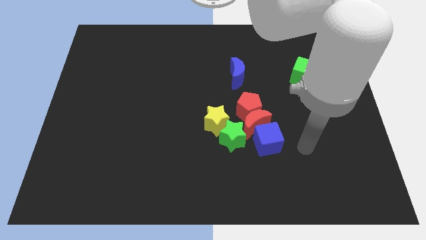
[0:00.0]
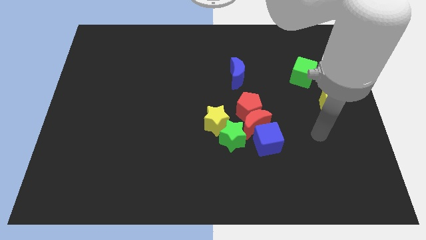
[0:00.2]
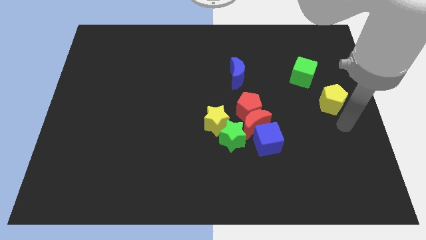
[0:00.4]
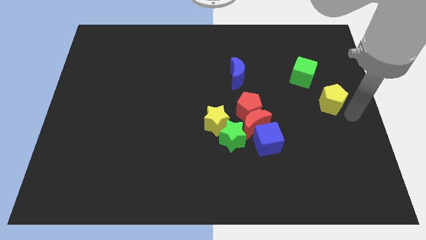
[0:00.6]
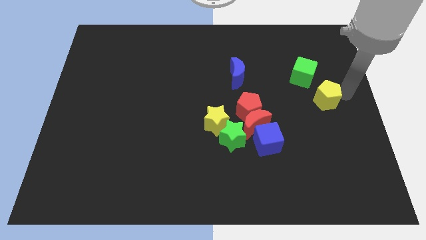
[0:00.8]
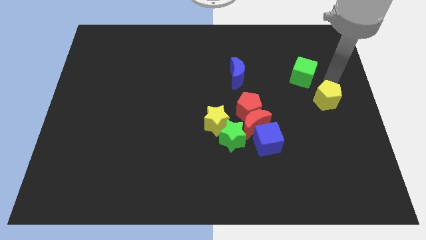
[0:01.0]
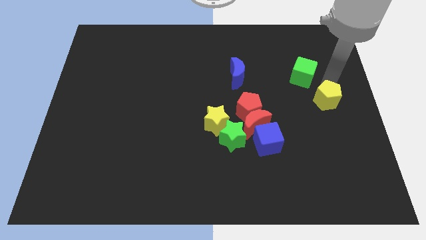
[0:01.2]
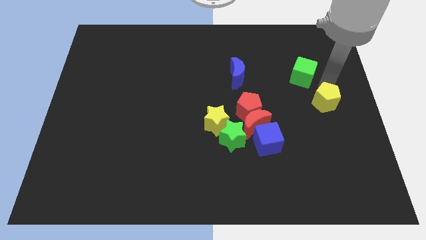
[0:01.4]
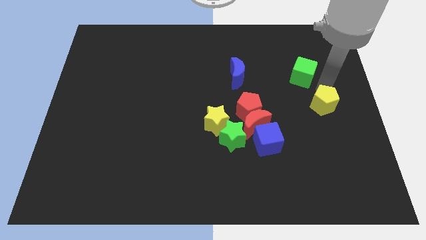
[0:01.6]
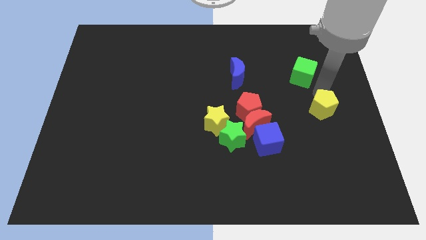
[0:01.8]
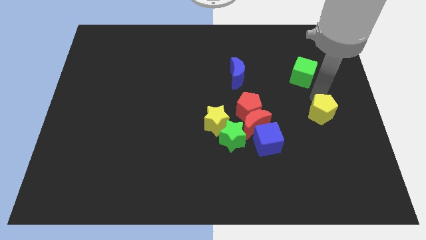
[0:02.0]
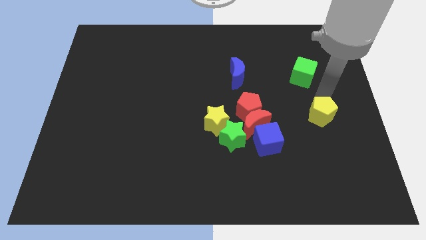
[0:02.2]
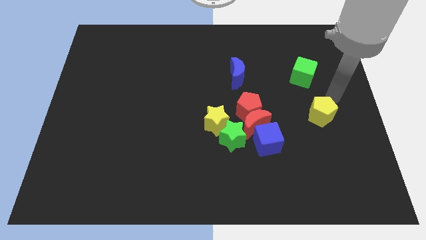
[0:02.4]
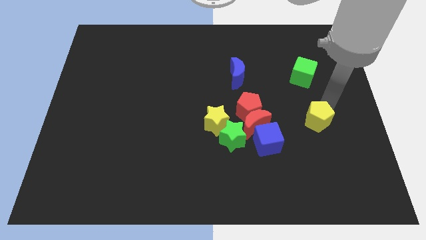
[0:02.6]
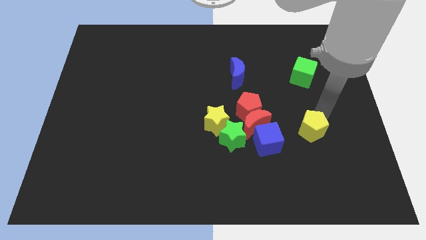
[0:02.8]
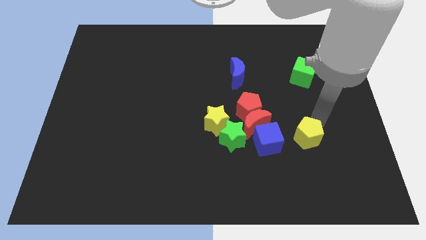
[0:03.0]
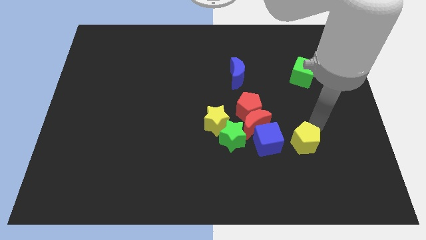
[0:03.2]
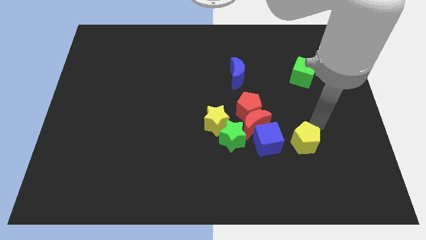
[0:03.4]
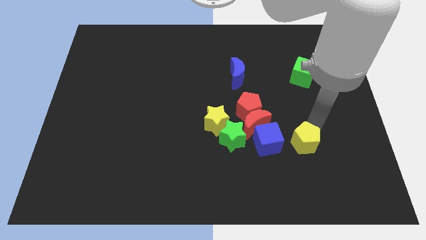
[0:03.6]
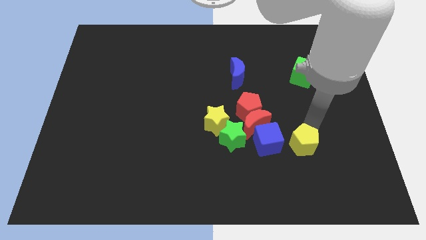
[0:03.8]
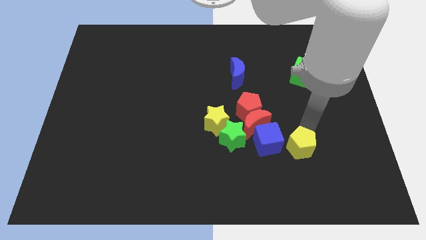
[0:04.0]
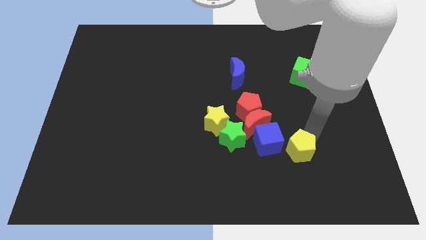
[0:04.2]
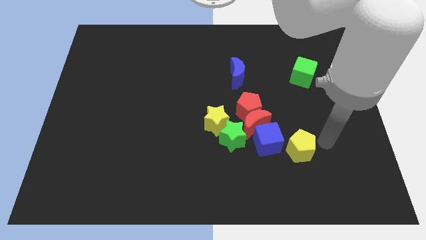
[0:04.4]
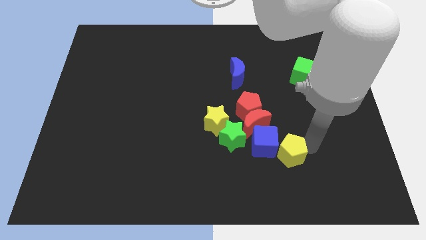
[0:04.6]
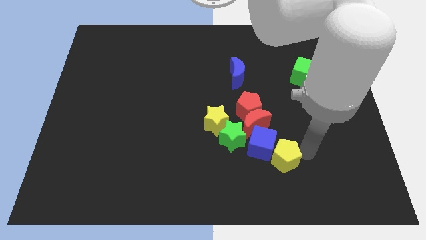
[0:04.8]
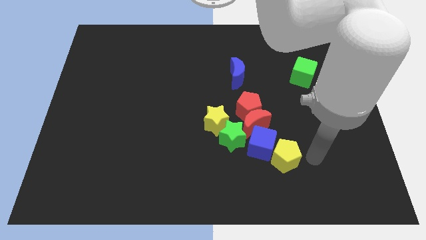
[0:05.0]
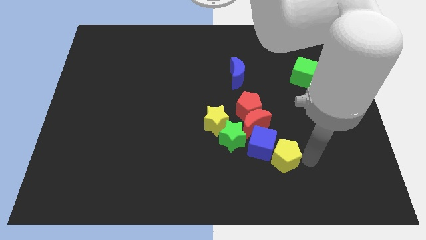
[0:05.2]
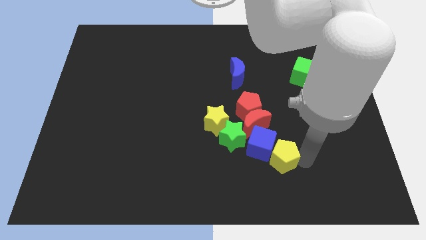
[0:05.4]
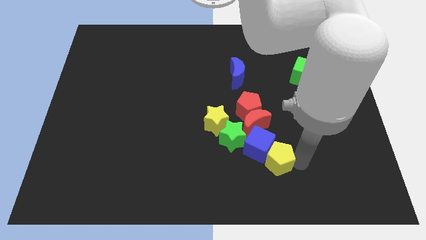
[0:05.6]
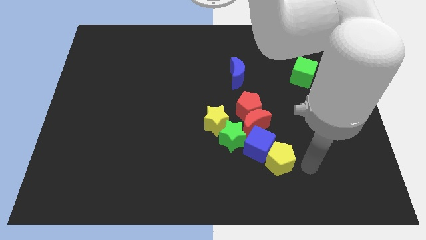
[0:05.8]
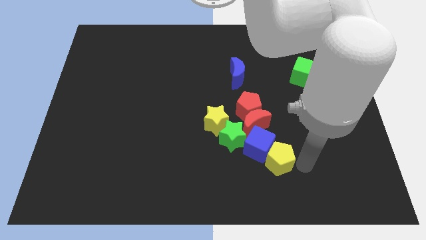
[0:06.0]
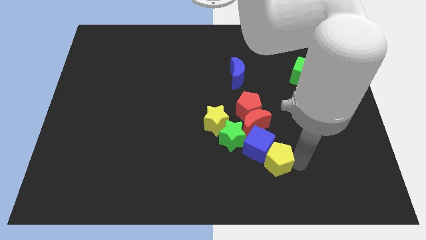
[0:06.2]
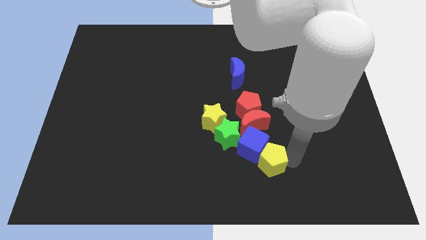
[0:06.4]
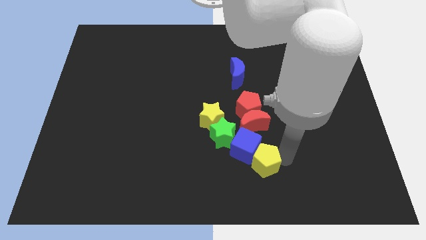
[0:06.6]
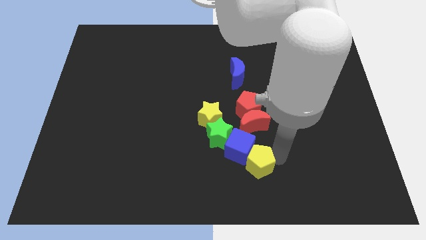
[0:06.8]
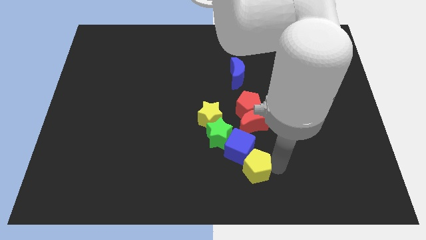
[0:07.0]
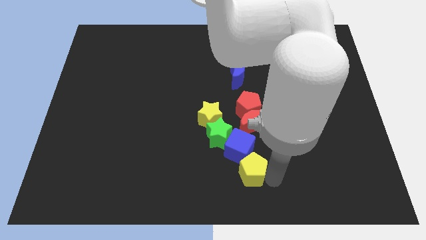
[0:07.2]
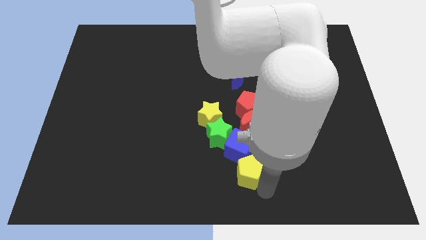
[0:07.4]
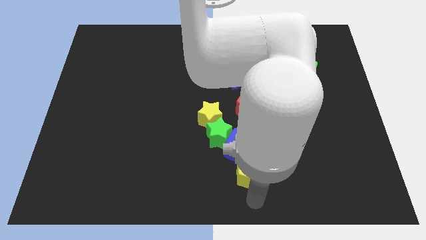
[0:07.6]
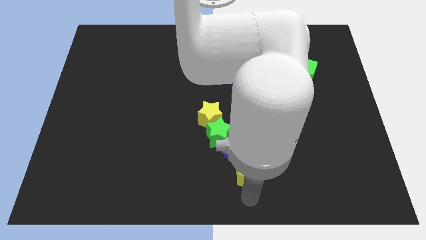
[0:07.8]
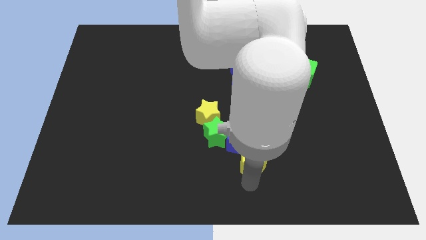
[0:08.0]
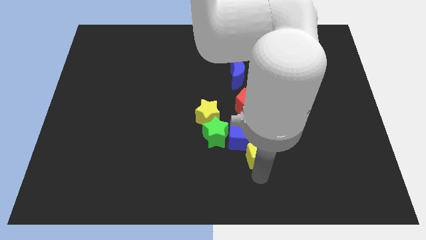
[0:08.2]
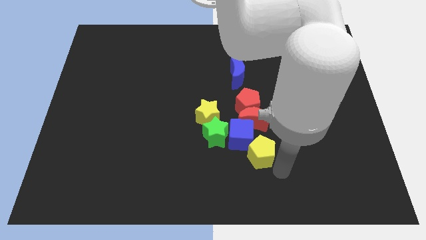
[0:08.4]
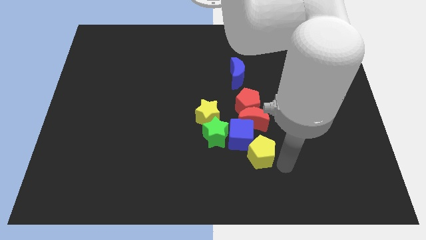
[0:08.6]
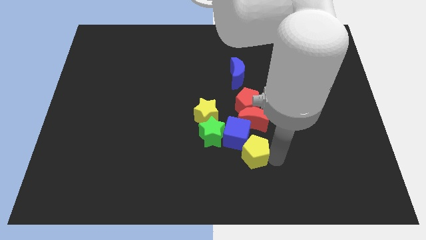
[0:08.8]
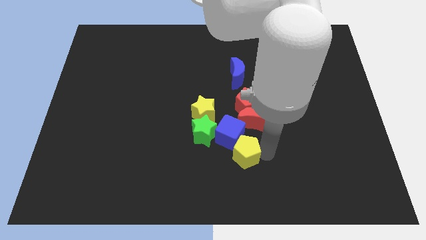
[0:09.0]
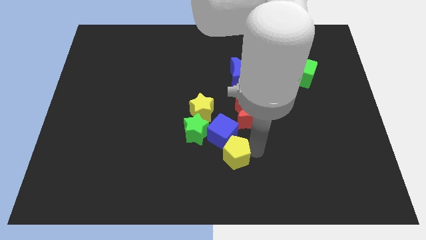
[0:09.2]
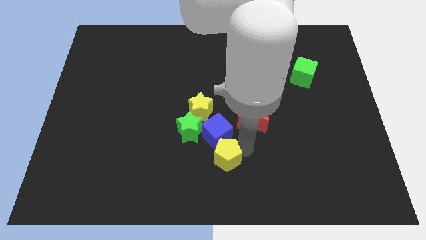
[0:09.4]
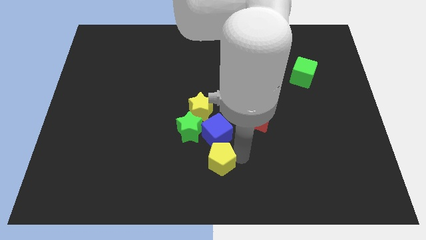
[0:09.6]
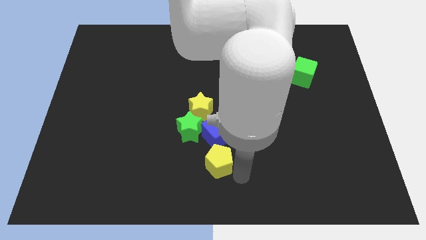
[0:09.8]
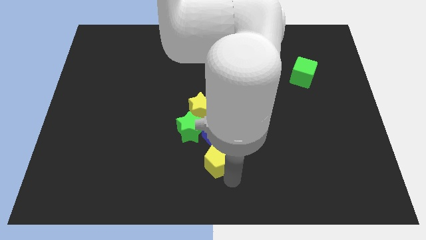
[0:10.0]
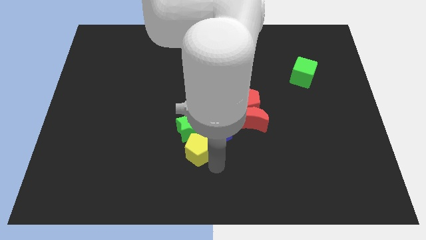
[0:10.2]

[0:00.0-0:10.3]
put the yellow pentagon next to the green star

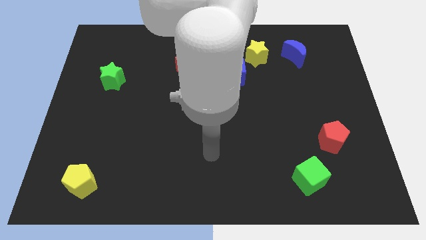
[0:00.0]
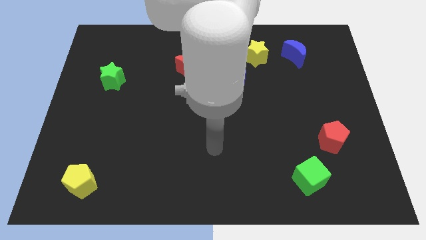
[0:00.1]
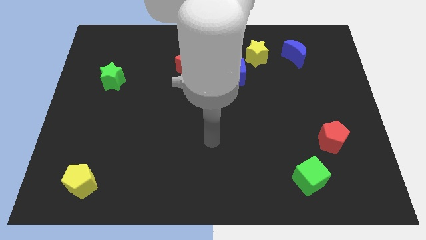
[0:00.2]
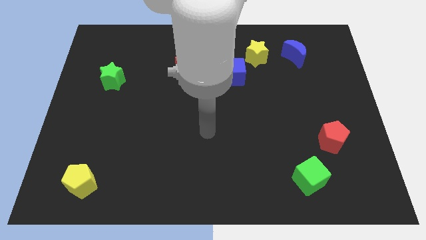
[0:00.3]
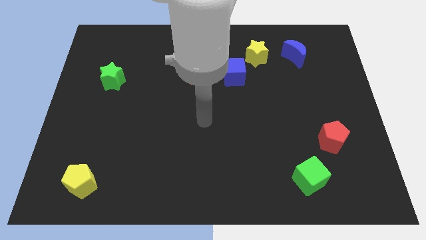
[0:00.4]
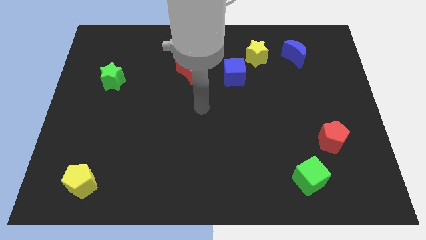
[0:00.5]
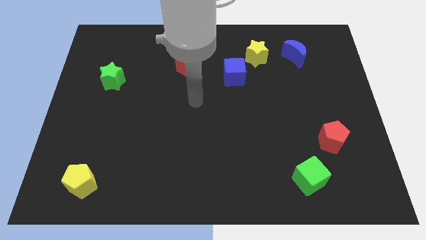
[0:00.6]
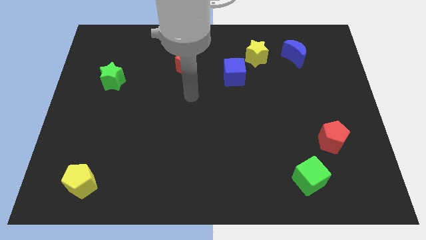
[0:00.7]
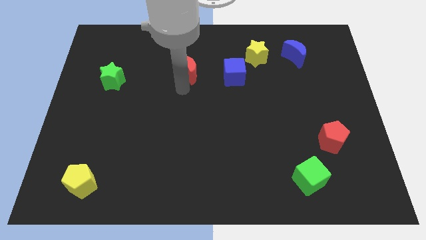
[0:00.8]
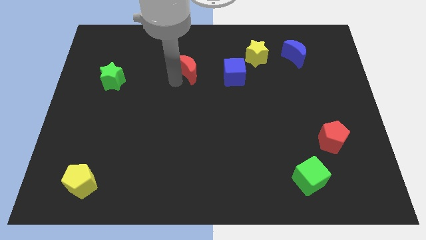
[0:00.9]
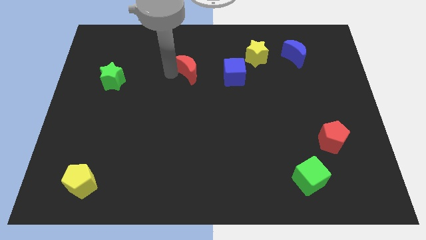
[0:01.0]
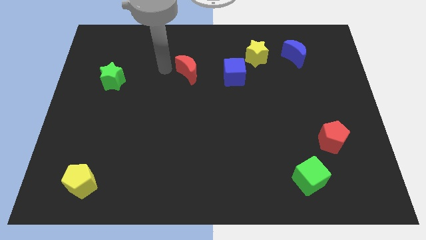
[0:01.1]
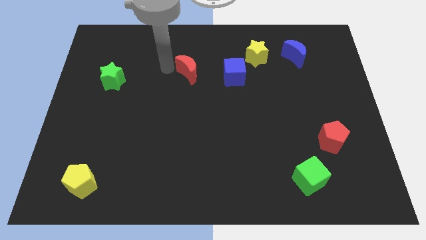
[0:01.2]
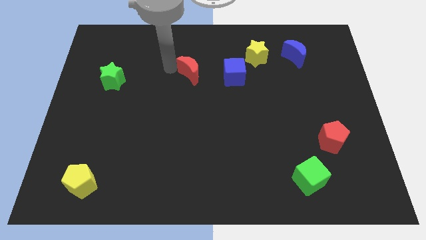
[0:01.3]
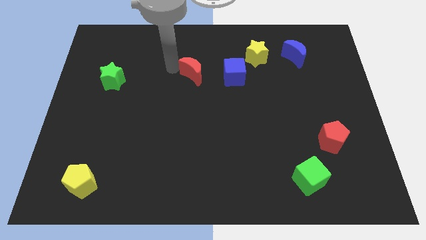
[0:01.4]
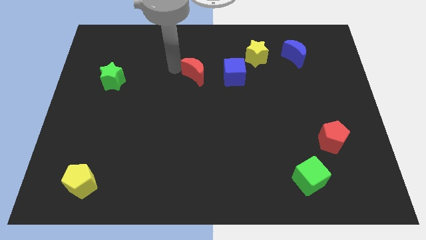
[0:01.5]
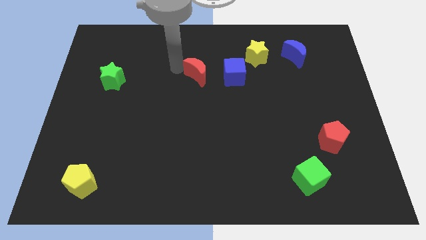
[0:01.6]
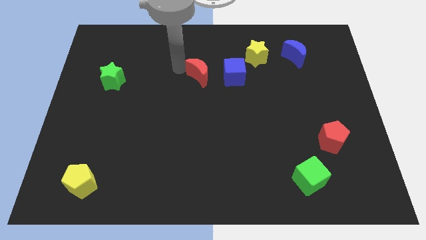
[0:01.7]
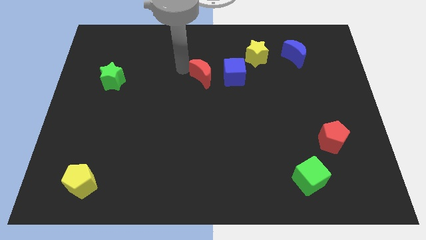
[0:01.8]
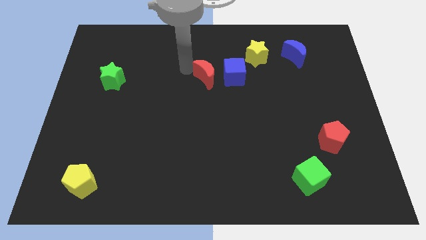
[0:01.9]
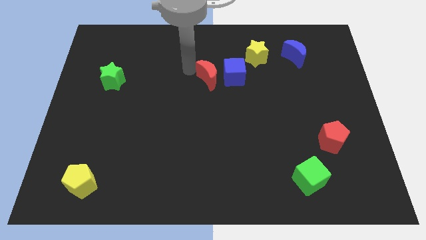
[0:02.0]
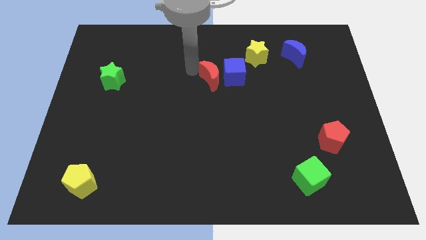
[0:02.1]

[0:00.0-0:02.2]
put the red moon to the blue cube
